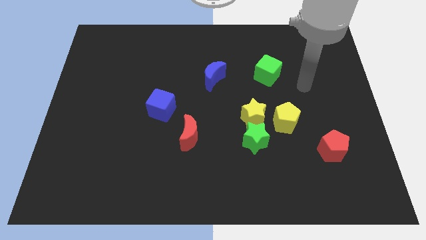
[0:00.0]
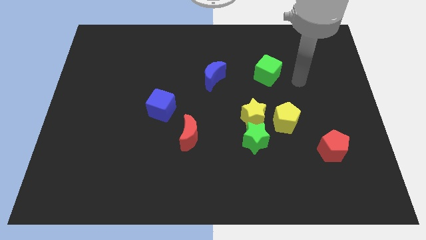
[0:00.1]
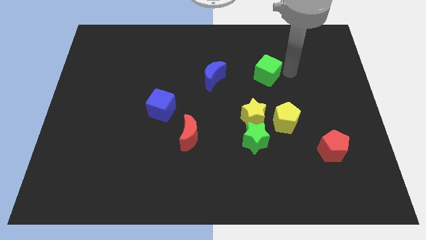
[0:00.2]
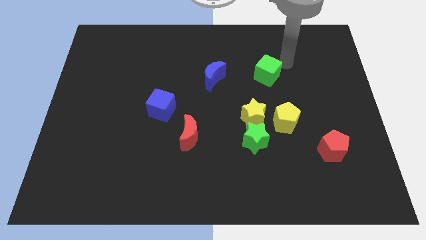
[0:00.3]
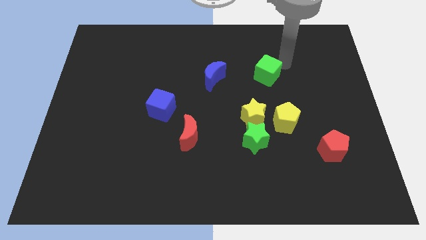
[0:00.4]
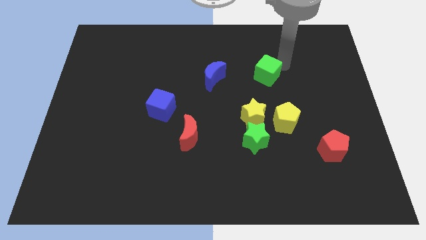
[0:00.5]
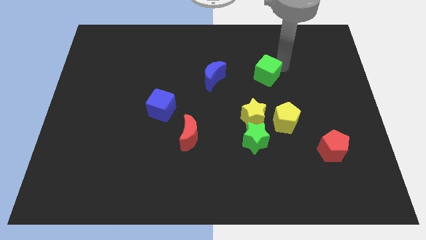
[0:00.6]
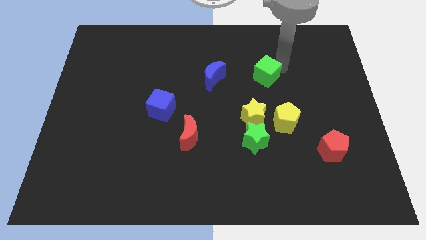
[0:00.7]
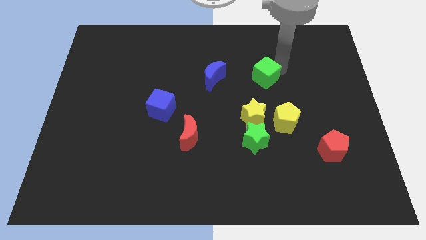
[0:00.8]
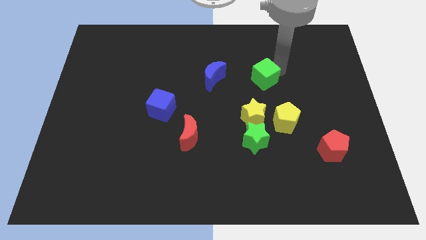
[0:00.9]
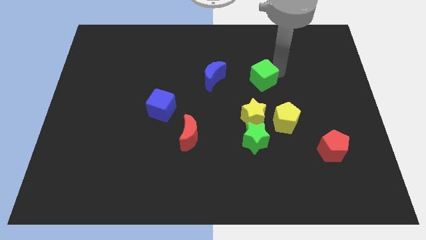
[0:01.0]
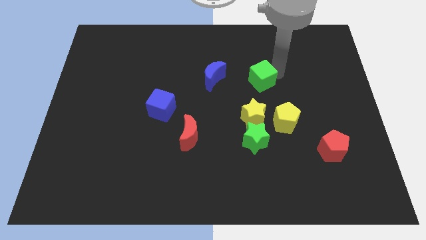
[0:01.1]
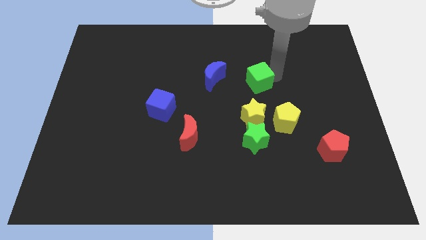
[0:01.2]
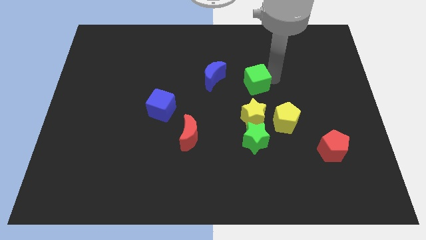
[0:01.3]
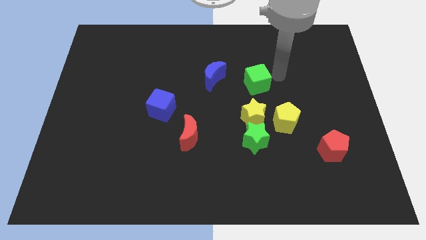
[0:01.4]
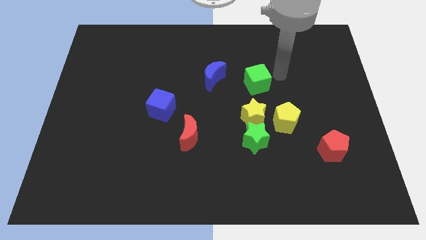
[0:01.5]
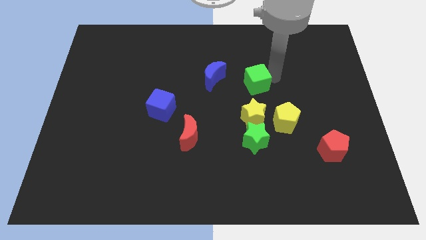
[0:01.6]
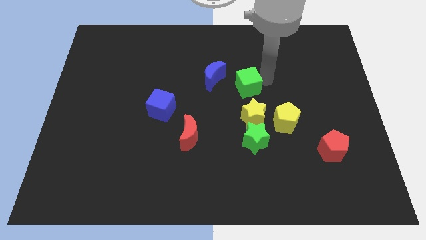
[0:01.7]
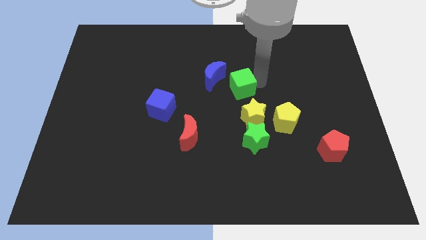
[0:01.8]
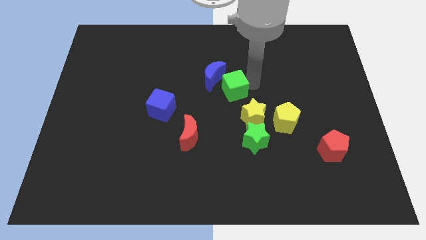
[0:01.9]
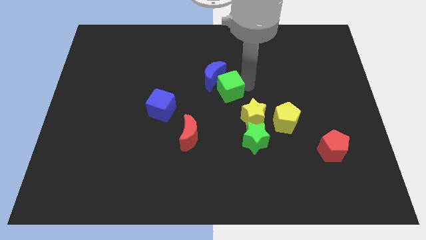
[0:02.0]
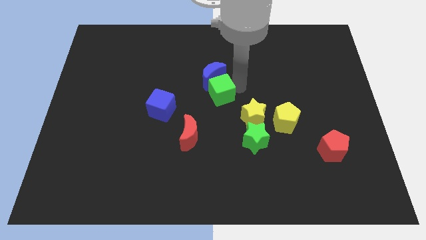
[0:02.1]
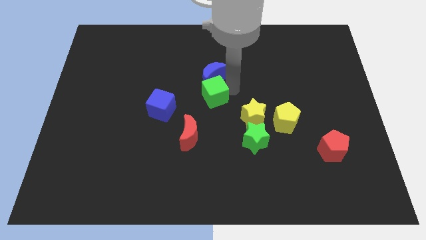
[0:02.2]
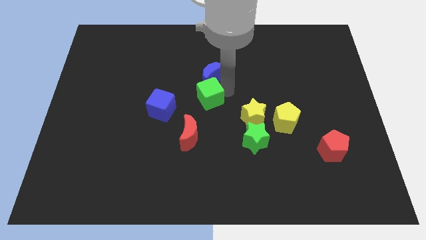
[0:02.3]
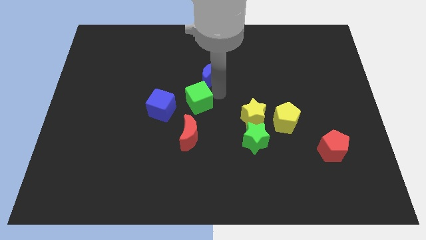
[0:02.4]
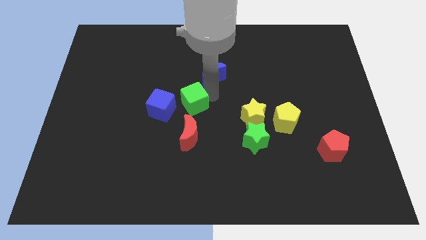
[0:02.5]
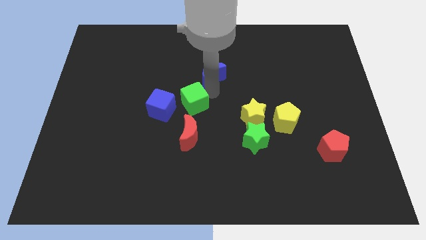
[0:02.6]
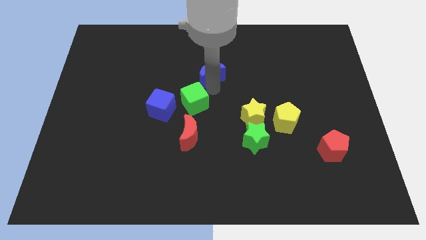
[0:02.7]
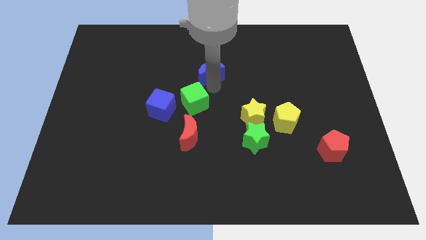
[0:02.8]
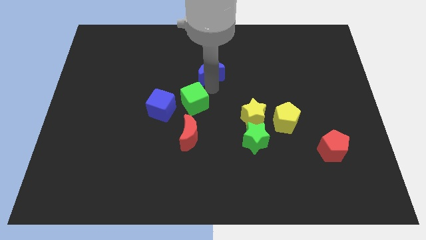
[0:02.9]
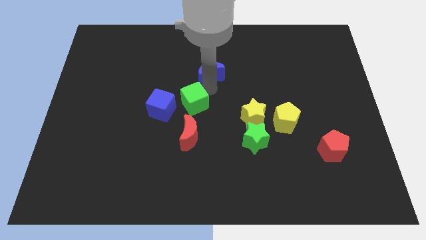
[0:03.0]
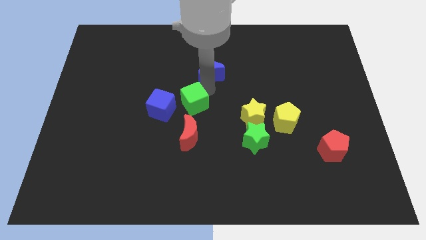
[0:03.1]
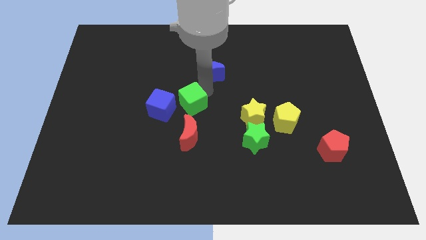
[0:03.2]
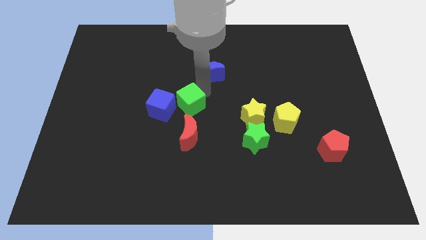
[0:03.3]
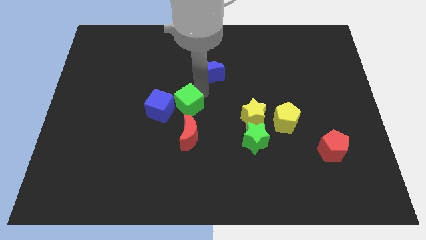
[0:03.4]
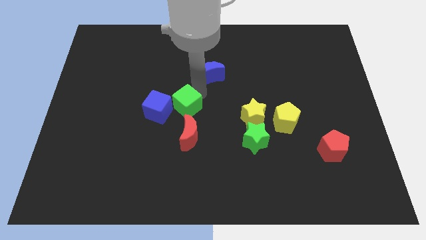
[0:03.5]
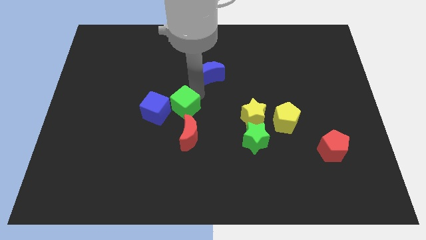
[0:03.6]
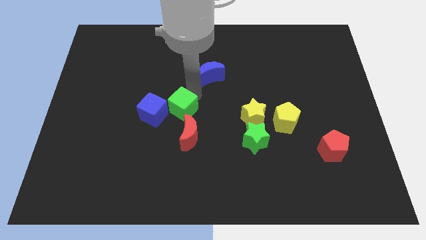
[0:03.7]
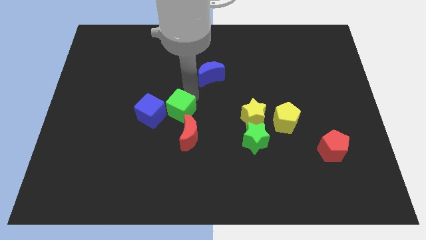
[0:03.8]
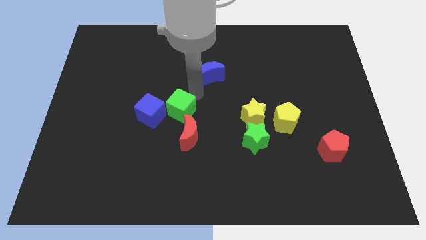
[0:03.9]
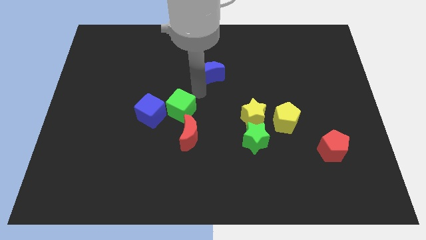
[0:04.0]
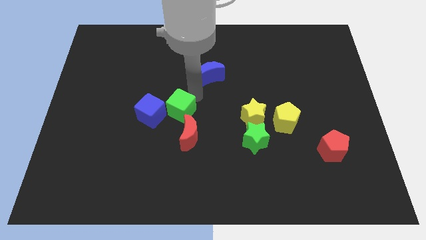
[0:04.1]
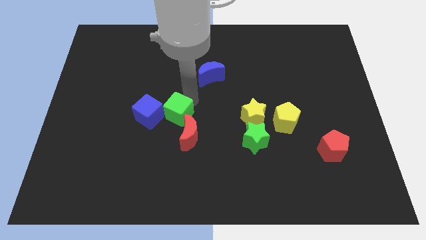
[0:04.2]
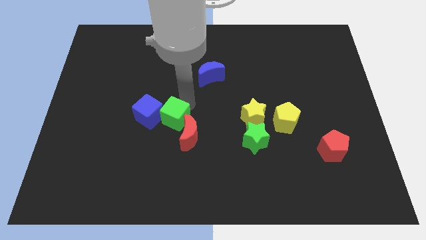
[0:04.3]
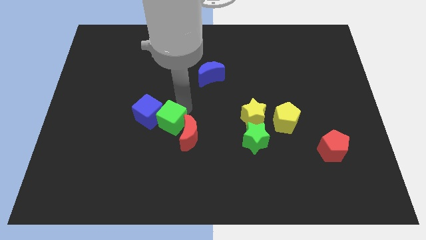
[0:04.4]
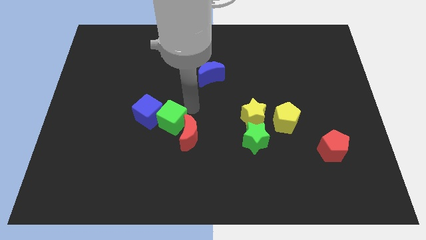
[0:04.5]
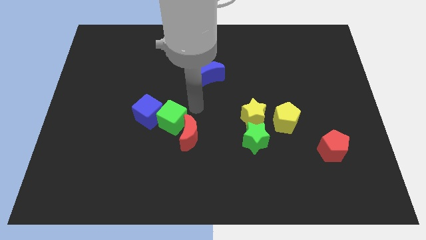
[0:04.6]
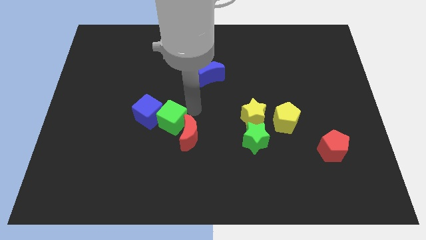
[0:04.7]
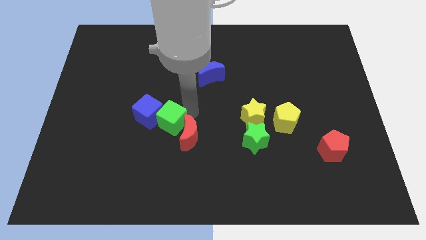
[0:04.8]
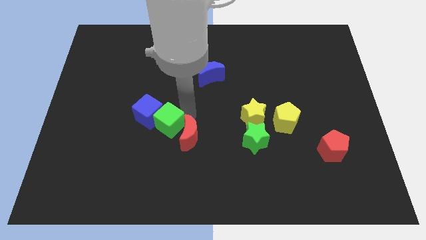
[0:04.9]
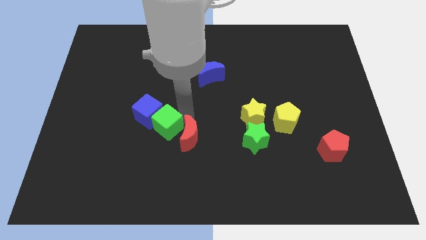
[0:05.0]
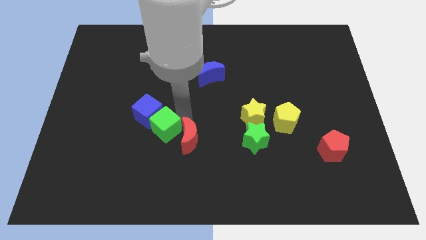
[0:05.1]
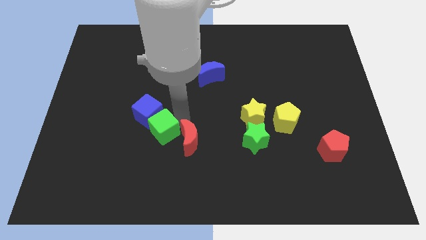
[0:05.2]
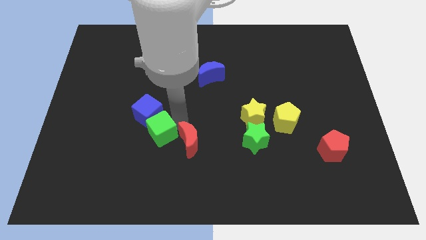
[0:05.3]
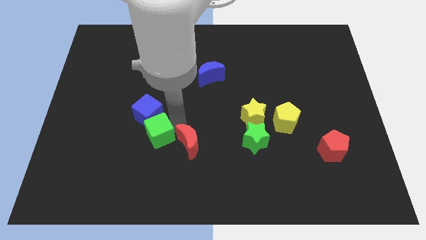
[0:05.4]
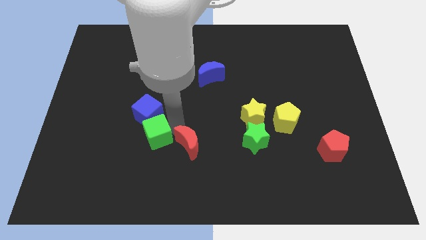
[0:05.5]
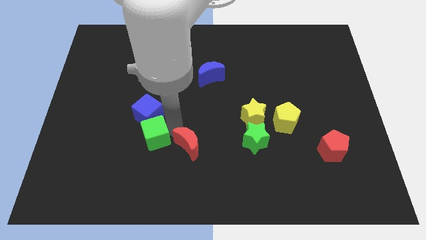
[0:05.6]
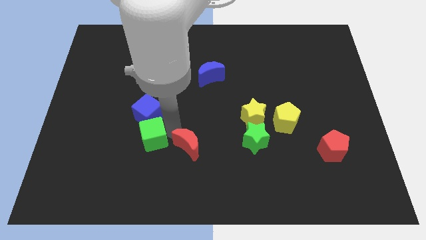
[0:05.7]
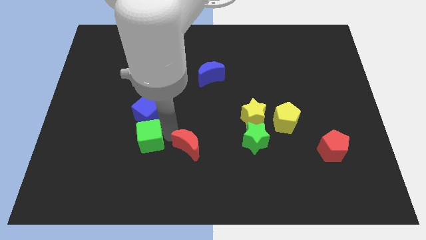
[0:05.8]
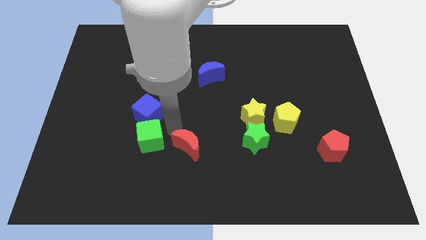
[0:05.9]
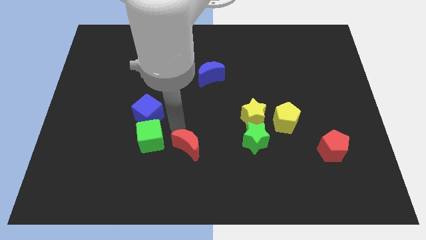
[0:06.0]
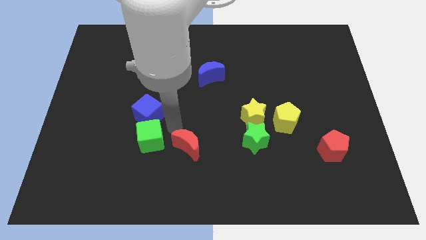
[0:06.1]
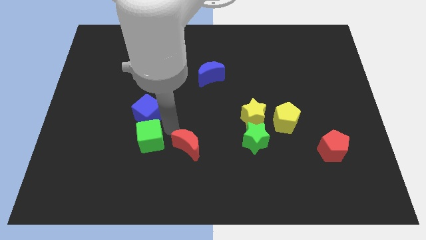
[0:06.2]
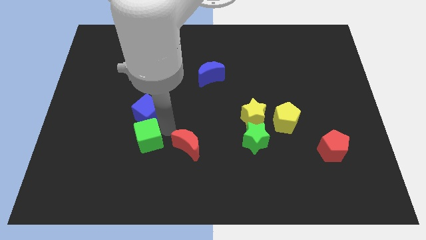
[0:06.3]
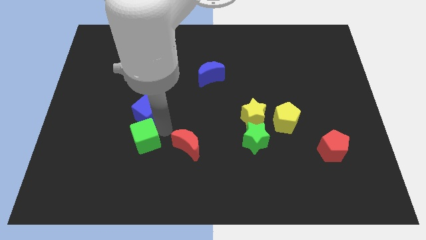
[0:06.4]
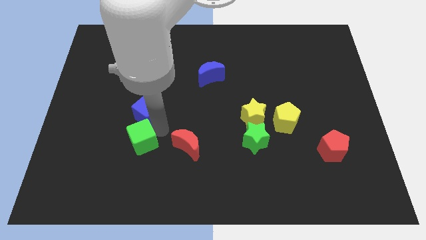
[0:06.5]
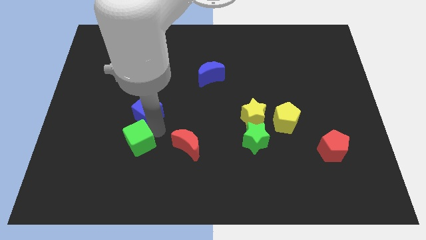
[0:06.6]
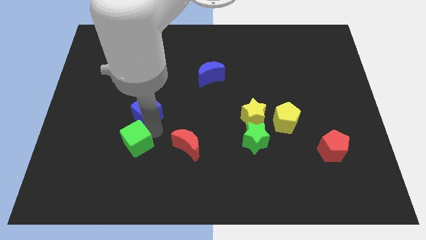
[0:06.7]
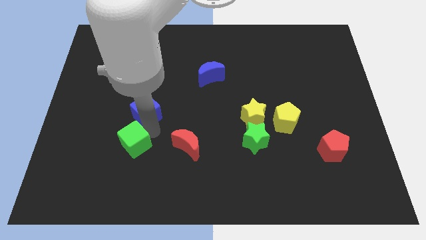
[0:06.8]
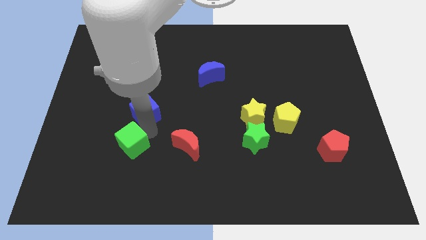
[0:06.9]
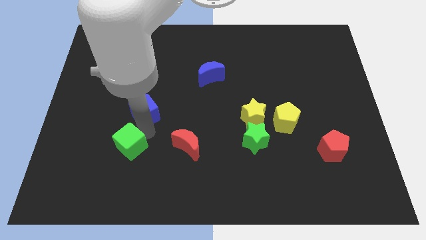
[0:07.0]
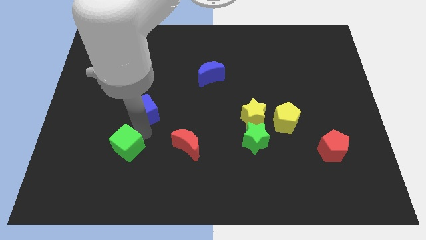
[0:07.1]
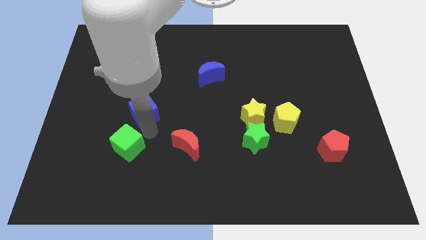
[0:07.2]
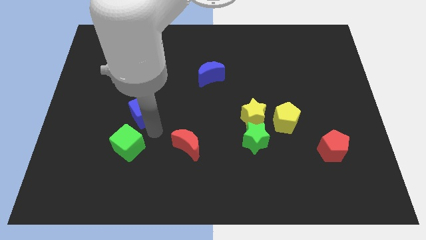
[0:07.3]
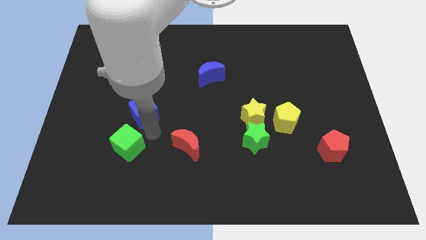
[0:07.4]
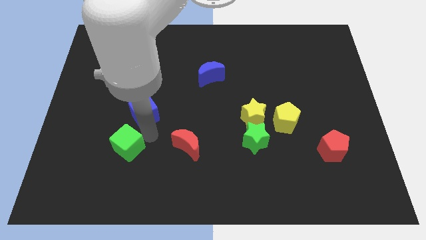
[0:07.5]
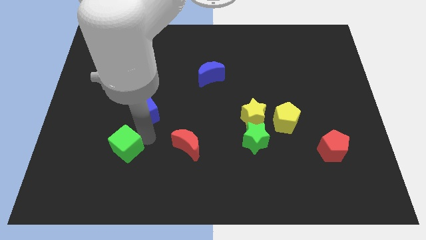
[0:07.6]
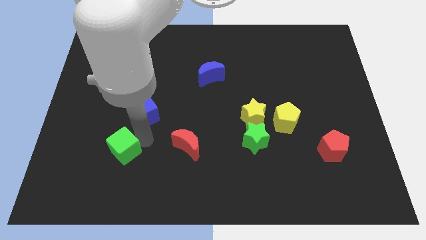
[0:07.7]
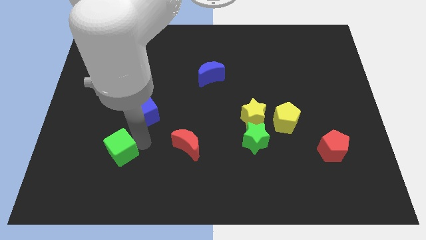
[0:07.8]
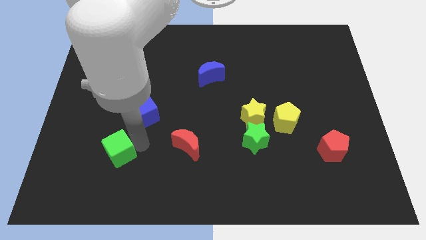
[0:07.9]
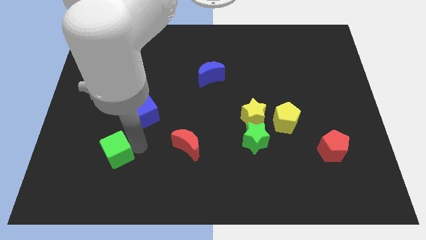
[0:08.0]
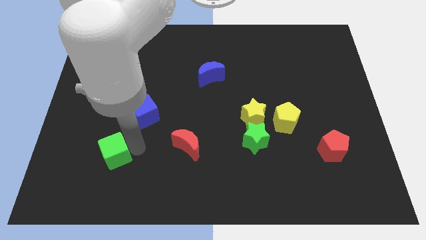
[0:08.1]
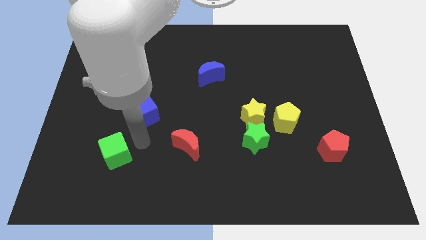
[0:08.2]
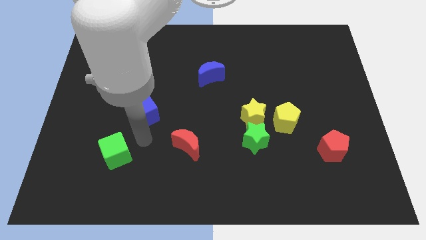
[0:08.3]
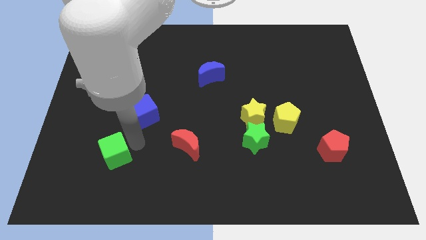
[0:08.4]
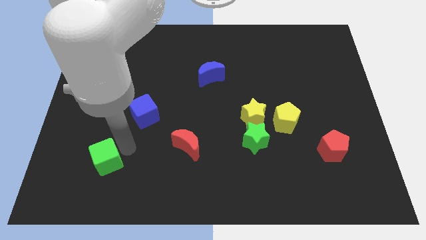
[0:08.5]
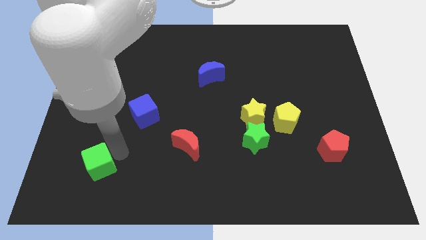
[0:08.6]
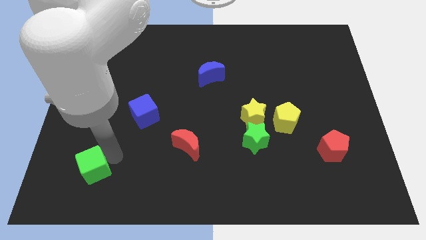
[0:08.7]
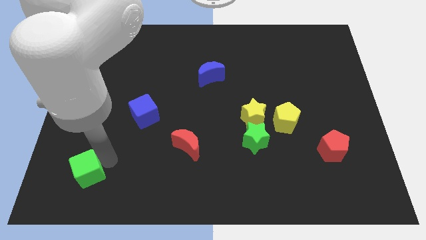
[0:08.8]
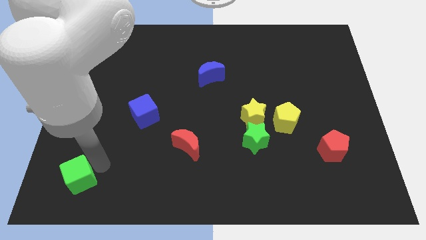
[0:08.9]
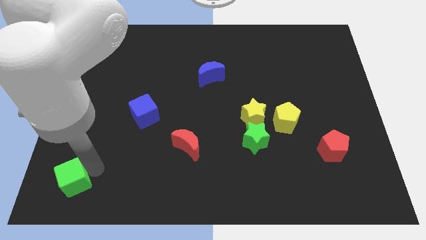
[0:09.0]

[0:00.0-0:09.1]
move the green cube to the lower left corner
